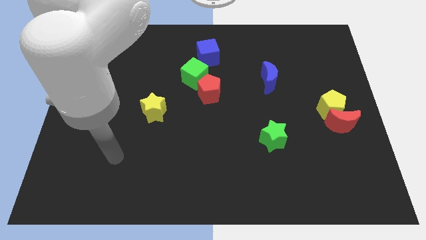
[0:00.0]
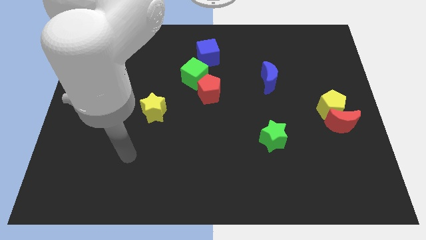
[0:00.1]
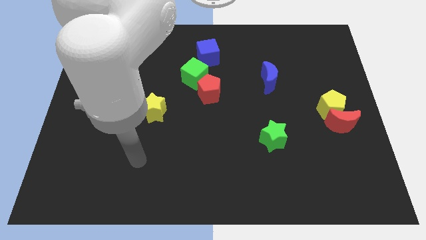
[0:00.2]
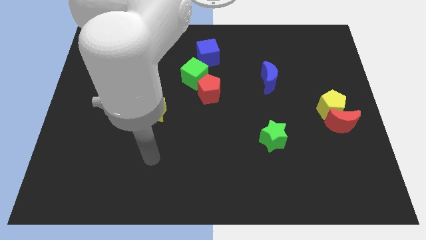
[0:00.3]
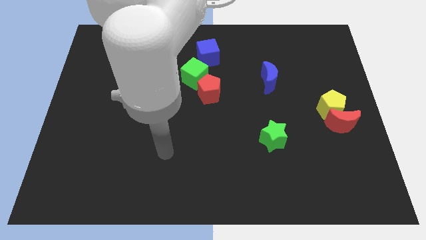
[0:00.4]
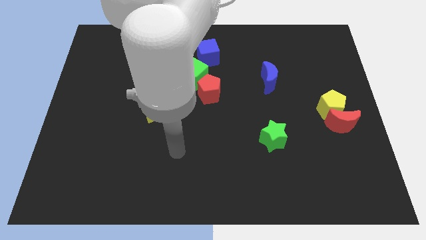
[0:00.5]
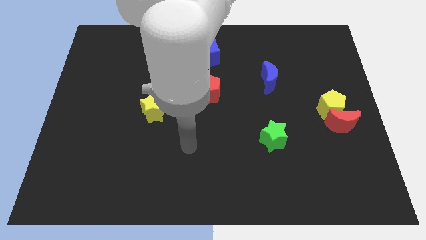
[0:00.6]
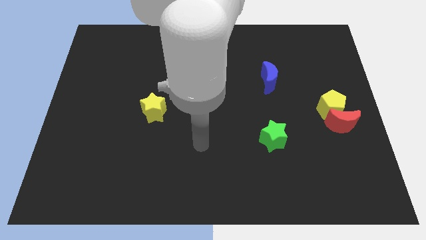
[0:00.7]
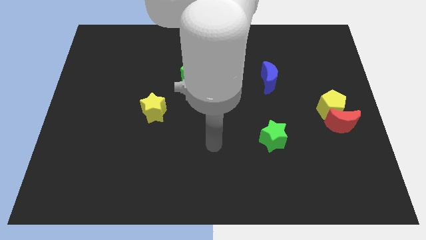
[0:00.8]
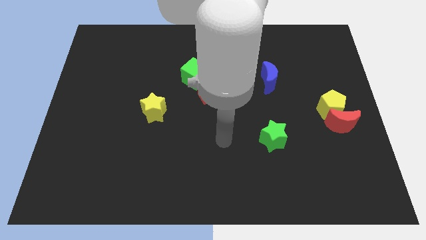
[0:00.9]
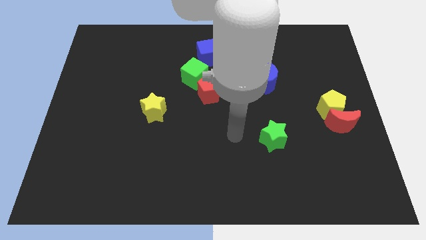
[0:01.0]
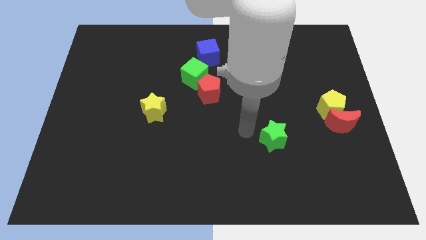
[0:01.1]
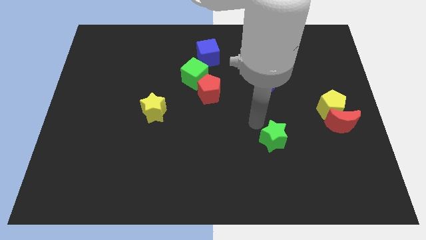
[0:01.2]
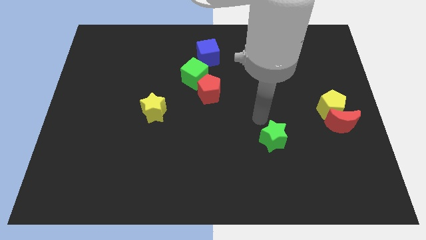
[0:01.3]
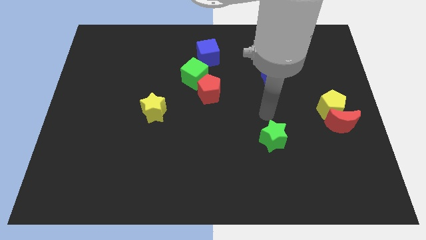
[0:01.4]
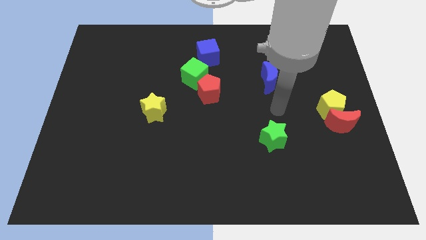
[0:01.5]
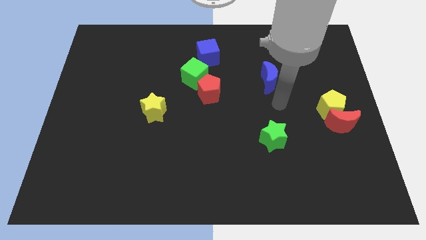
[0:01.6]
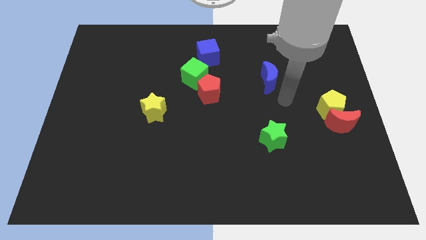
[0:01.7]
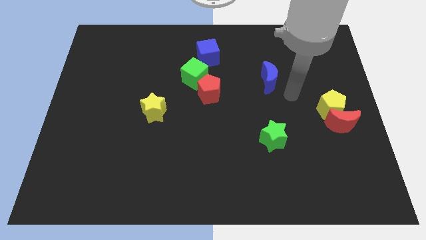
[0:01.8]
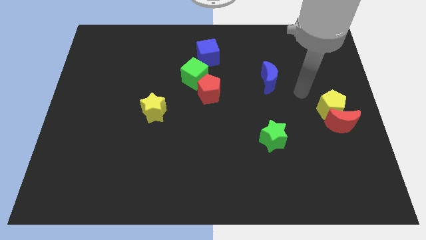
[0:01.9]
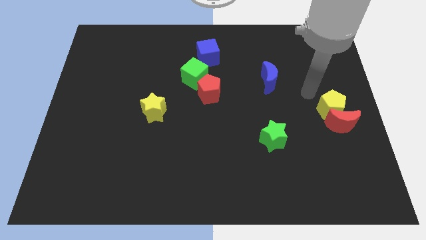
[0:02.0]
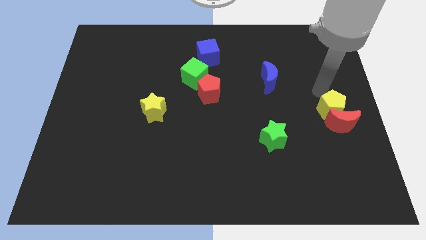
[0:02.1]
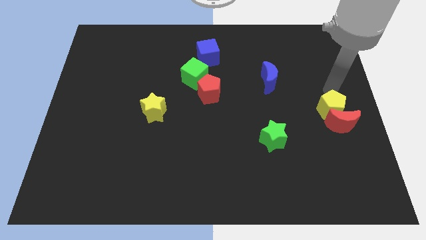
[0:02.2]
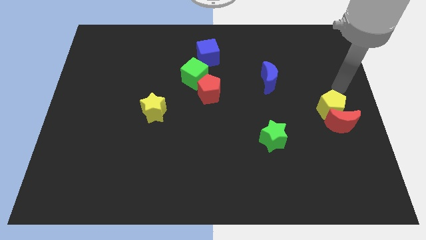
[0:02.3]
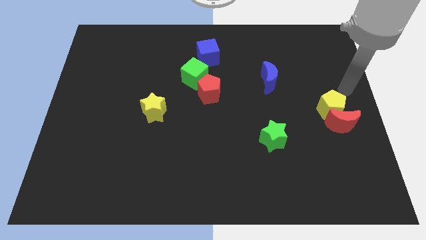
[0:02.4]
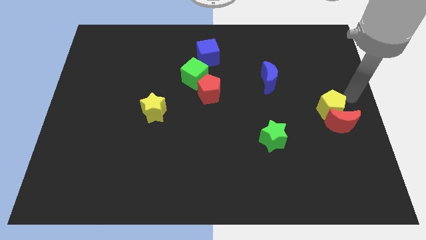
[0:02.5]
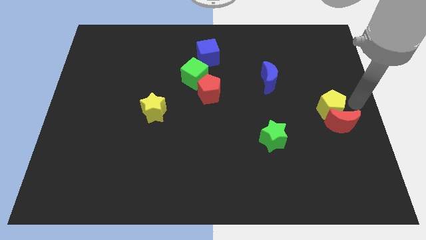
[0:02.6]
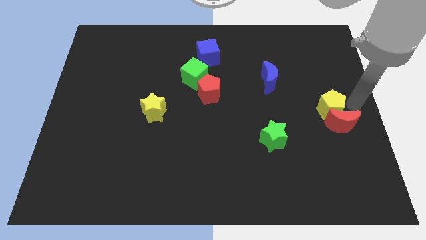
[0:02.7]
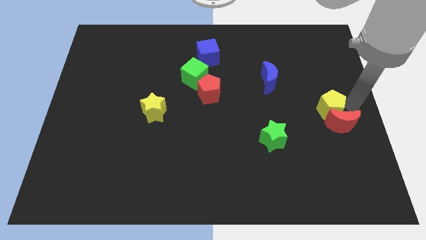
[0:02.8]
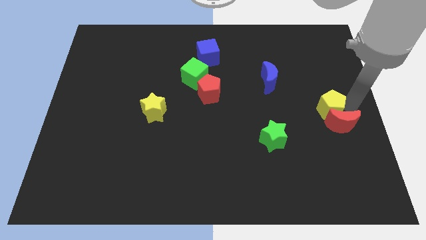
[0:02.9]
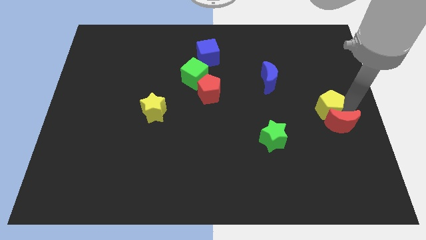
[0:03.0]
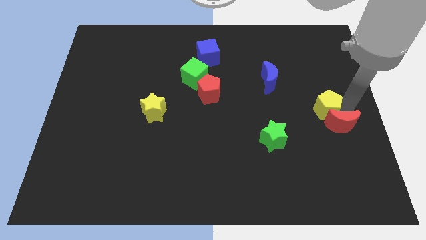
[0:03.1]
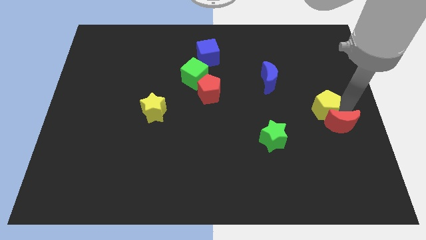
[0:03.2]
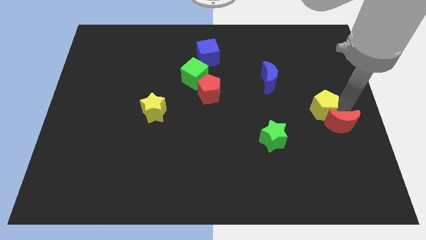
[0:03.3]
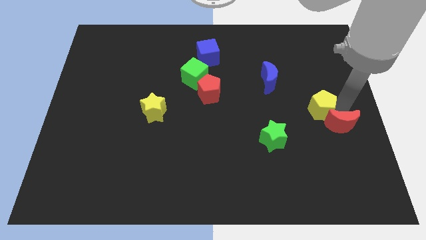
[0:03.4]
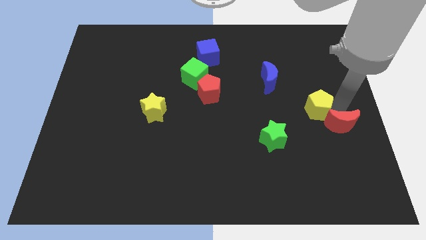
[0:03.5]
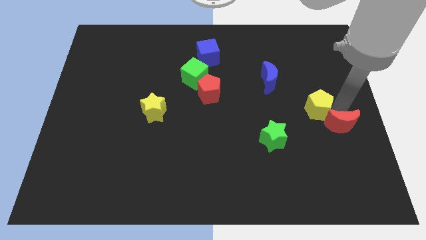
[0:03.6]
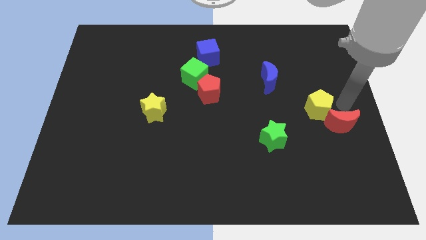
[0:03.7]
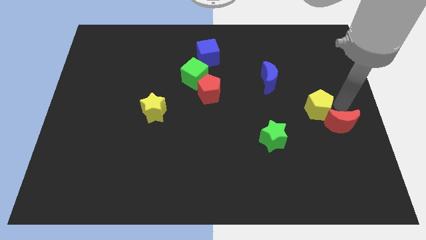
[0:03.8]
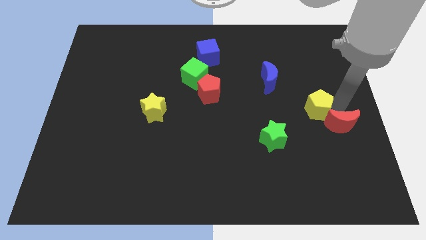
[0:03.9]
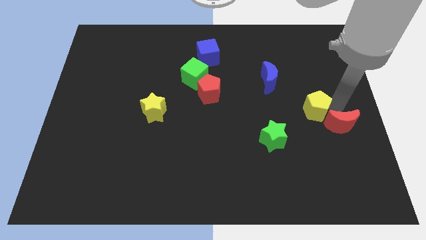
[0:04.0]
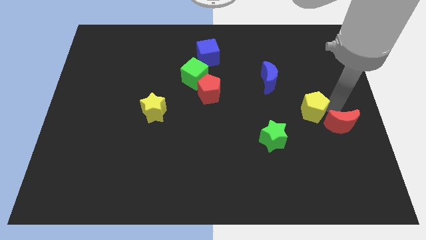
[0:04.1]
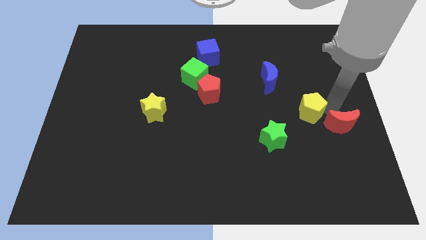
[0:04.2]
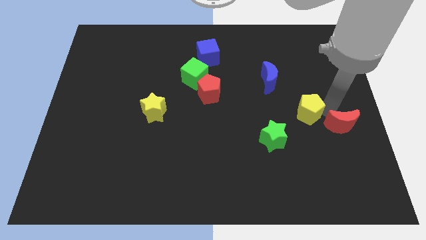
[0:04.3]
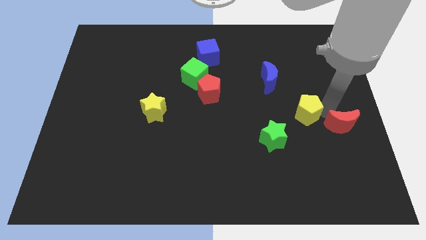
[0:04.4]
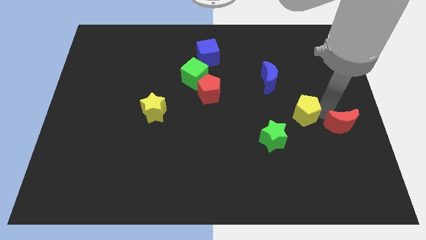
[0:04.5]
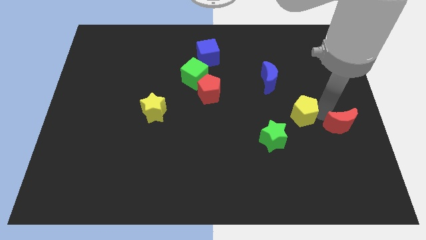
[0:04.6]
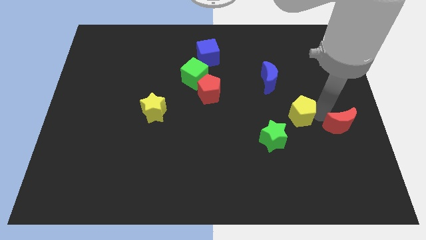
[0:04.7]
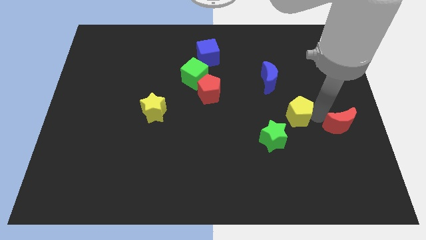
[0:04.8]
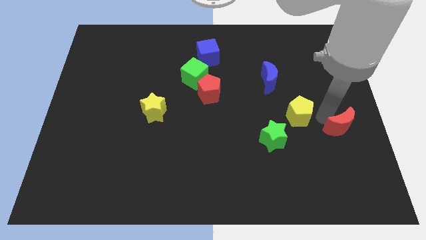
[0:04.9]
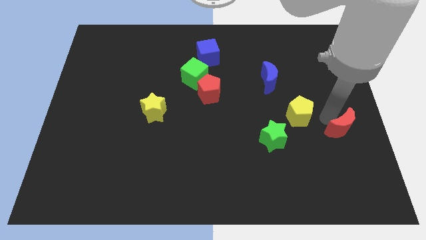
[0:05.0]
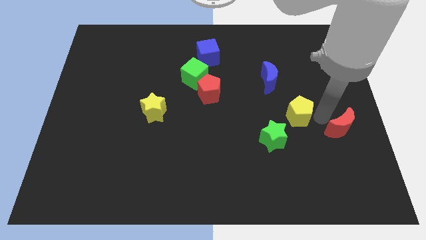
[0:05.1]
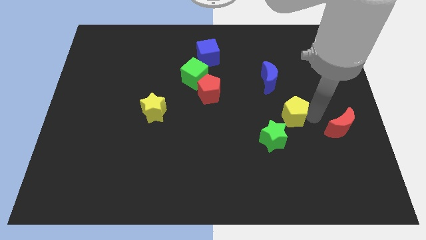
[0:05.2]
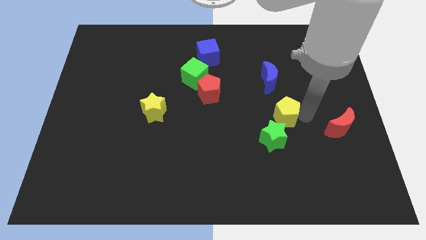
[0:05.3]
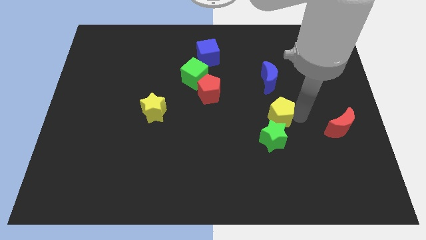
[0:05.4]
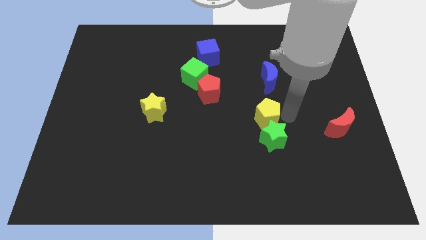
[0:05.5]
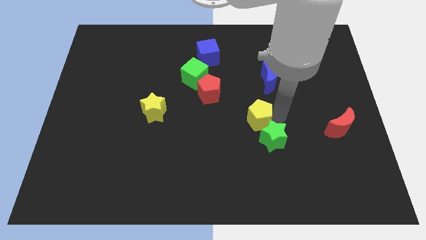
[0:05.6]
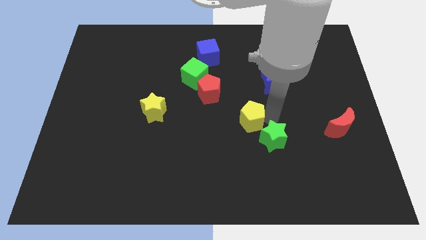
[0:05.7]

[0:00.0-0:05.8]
move the yellow pentagon to the bottom right of the red pentagon

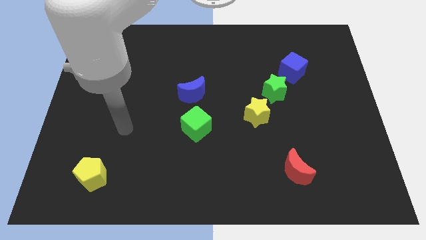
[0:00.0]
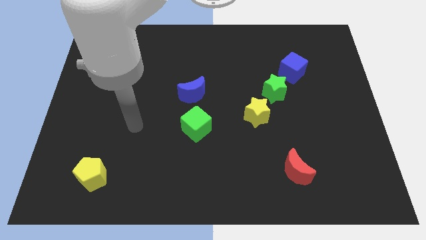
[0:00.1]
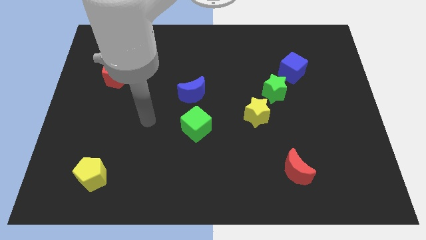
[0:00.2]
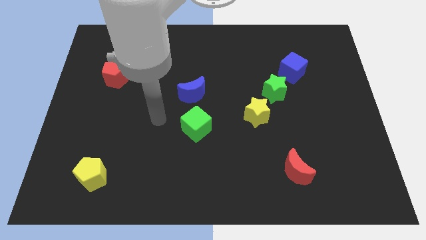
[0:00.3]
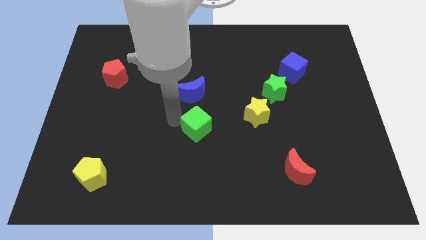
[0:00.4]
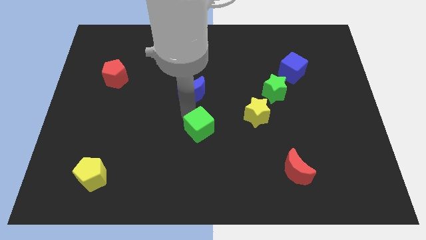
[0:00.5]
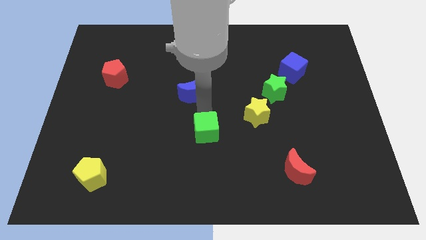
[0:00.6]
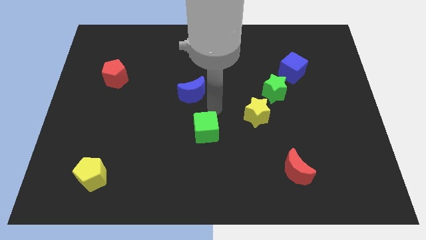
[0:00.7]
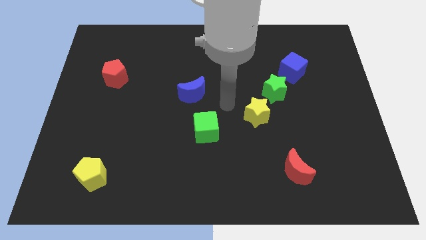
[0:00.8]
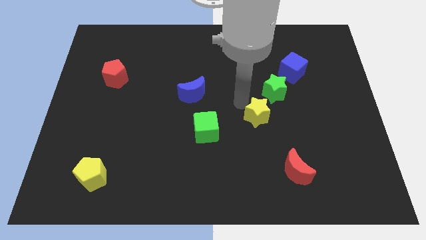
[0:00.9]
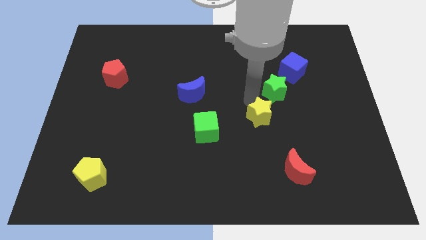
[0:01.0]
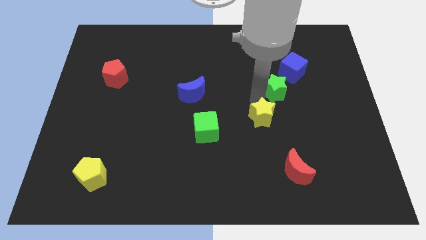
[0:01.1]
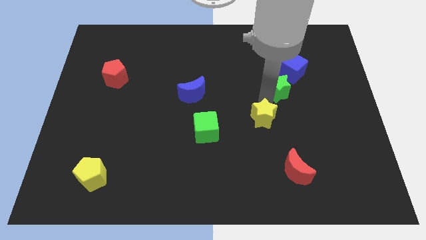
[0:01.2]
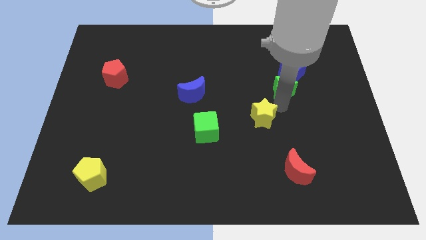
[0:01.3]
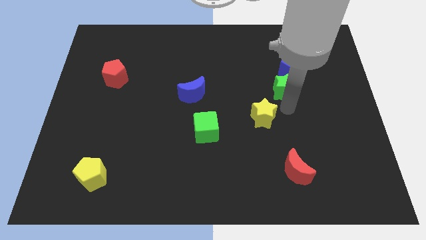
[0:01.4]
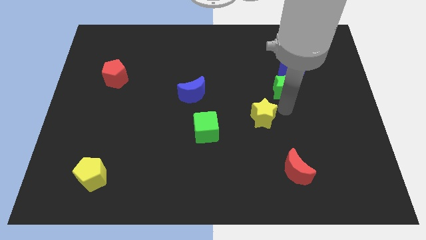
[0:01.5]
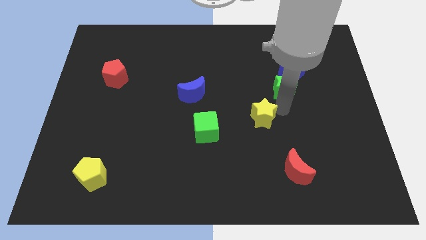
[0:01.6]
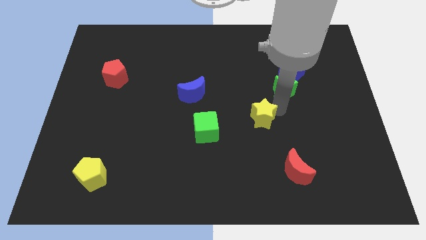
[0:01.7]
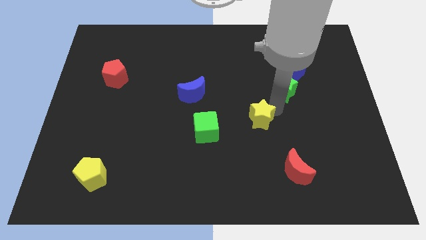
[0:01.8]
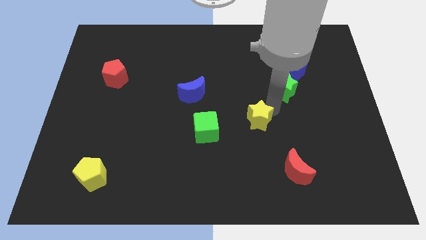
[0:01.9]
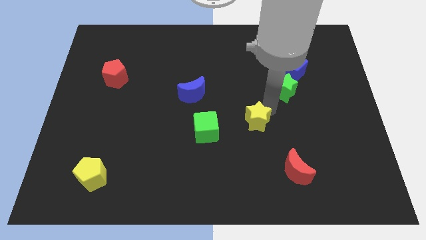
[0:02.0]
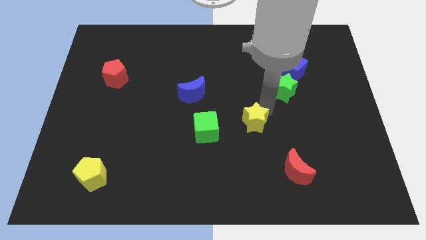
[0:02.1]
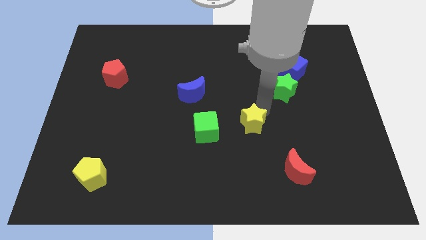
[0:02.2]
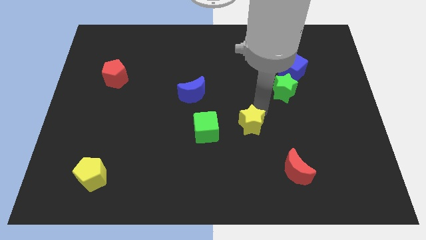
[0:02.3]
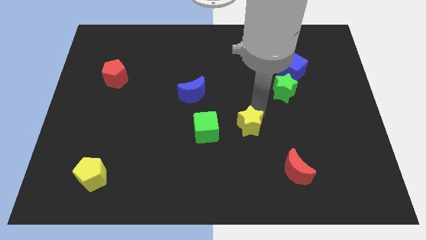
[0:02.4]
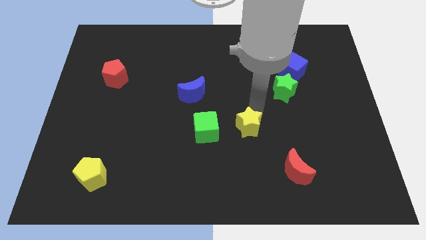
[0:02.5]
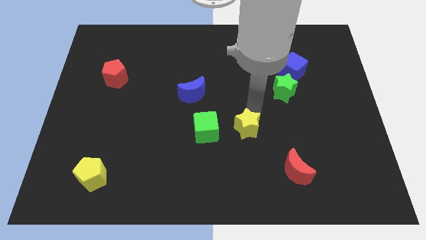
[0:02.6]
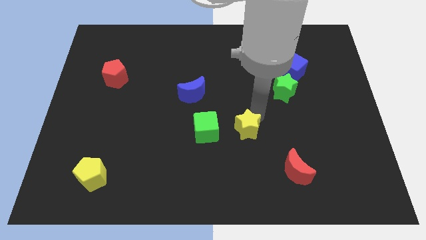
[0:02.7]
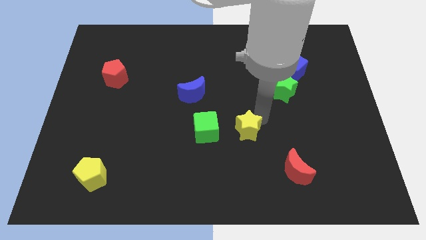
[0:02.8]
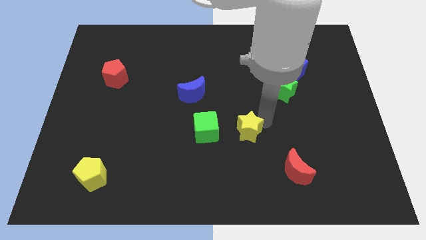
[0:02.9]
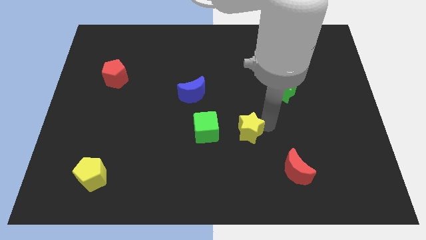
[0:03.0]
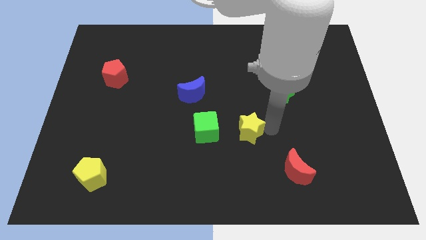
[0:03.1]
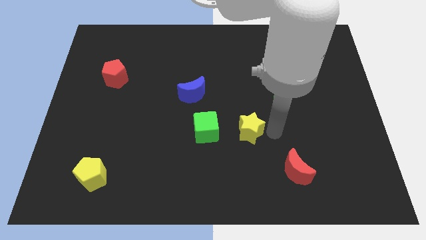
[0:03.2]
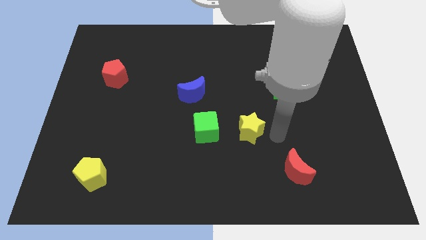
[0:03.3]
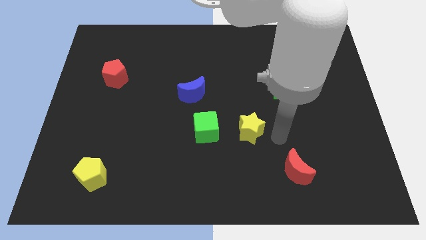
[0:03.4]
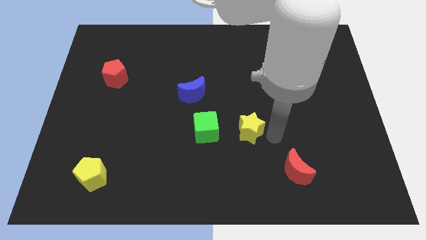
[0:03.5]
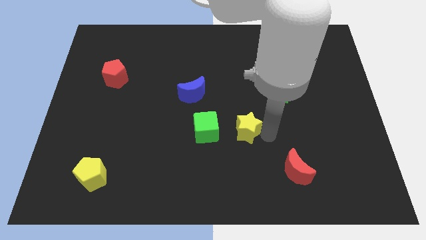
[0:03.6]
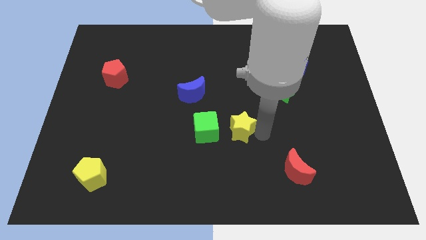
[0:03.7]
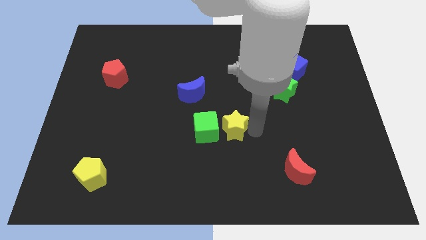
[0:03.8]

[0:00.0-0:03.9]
push the yellow star to the bottom right of the green cube
